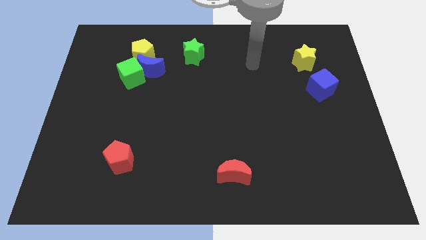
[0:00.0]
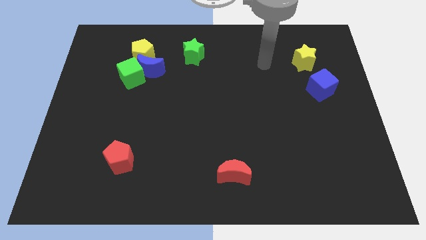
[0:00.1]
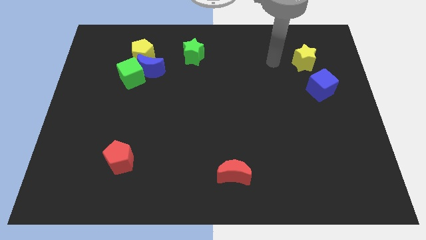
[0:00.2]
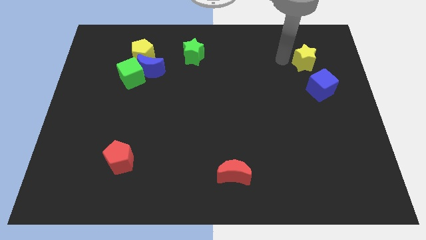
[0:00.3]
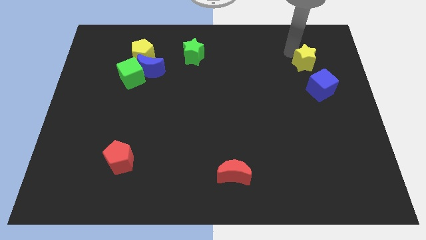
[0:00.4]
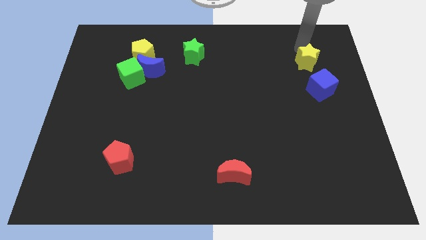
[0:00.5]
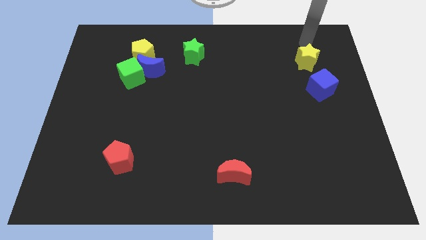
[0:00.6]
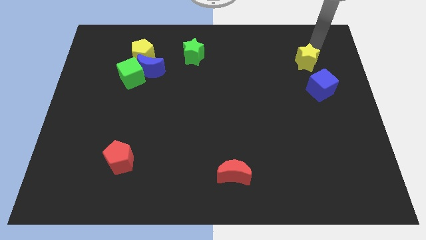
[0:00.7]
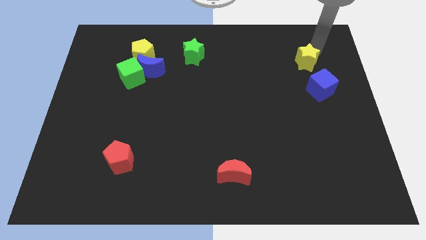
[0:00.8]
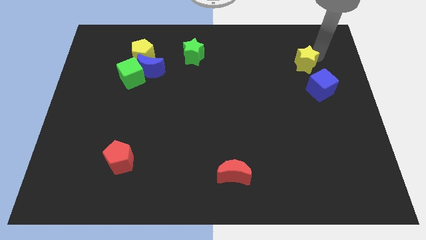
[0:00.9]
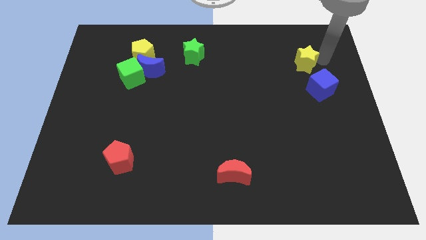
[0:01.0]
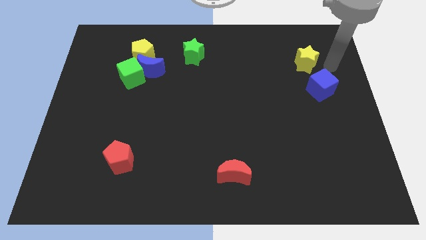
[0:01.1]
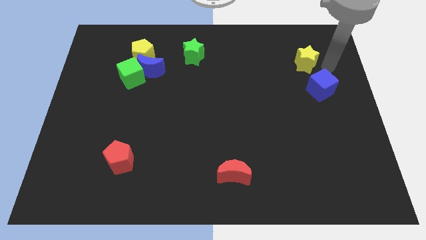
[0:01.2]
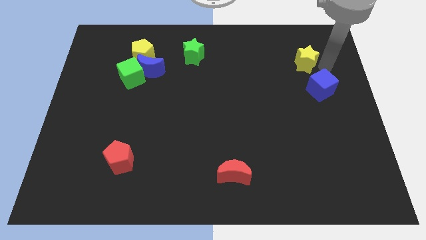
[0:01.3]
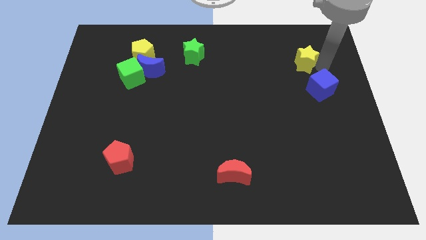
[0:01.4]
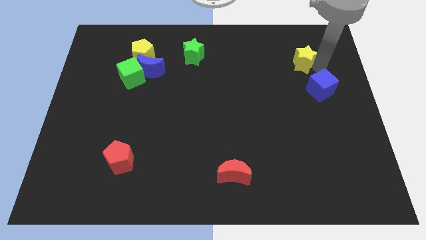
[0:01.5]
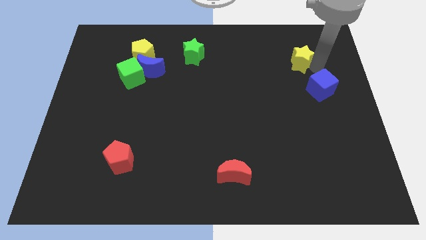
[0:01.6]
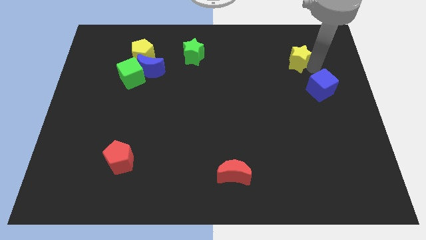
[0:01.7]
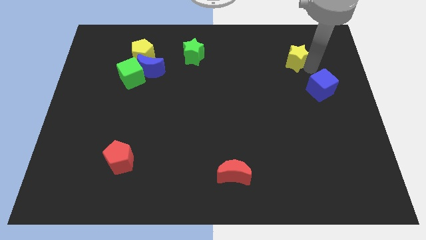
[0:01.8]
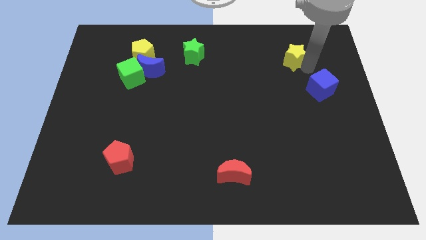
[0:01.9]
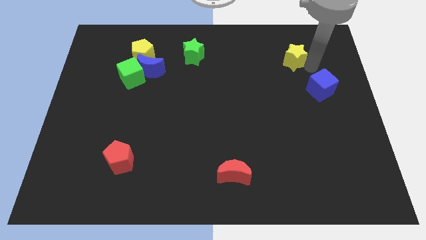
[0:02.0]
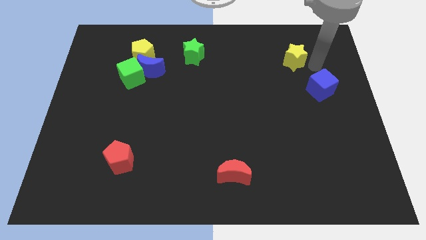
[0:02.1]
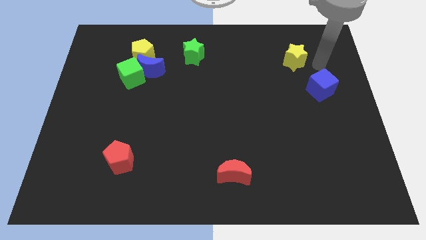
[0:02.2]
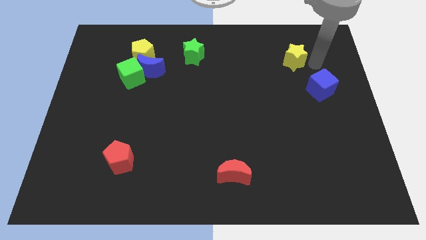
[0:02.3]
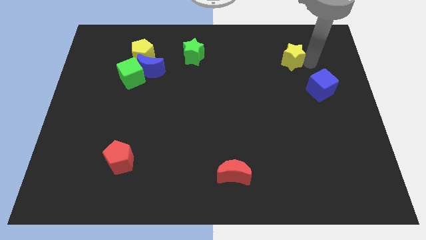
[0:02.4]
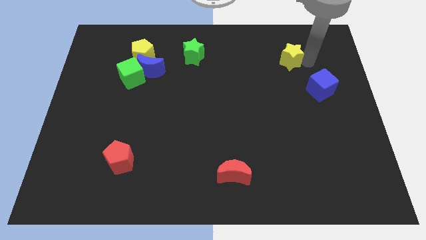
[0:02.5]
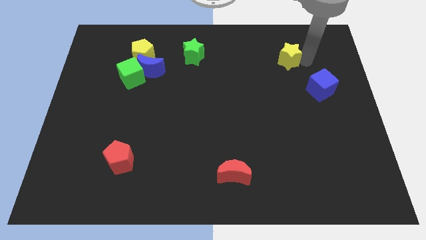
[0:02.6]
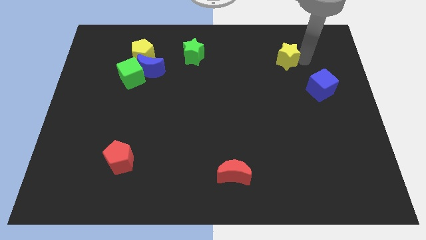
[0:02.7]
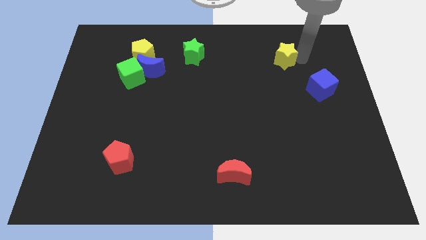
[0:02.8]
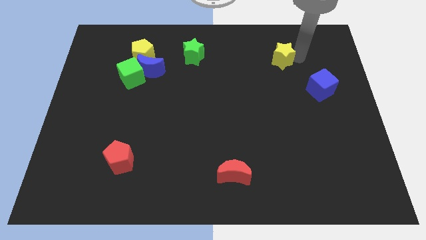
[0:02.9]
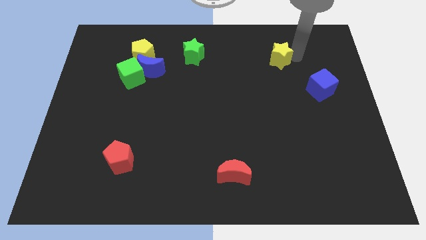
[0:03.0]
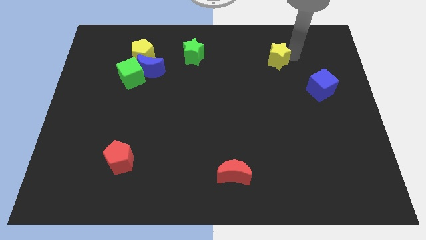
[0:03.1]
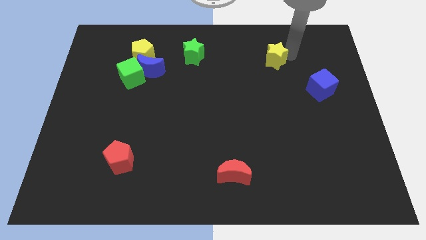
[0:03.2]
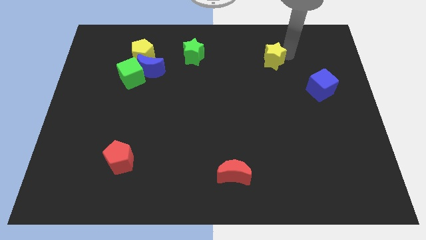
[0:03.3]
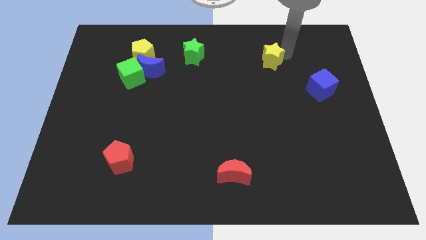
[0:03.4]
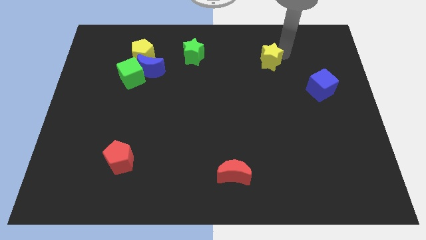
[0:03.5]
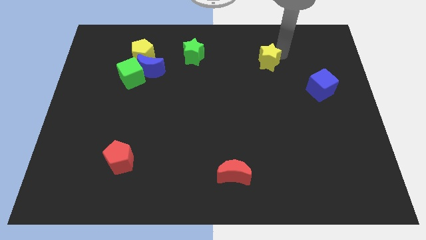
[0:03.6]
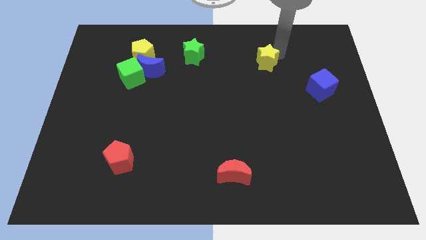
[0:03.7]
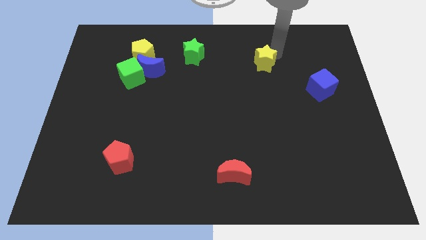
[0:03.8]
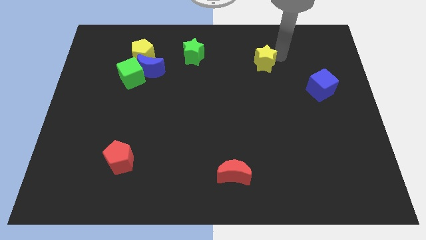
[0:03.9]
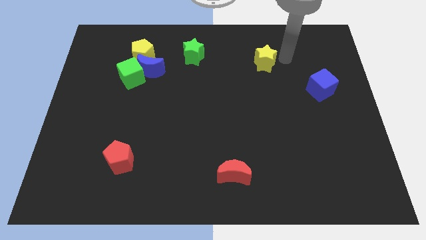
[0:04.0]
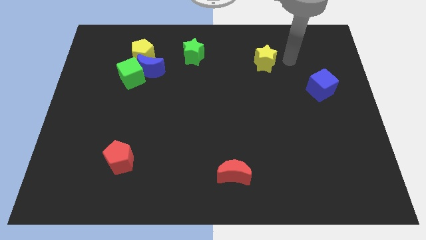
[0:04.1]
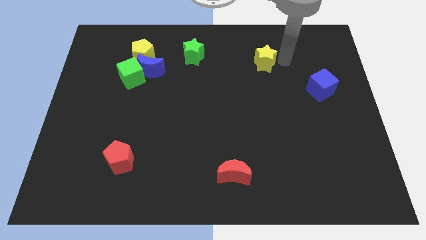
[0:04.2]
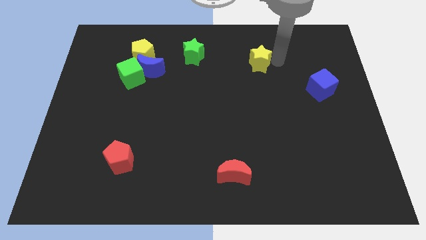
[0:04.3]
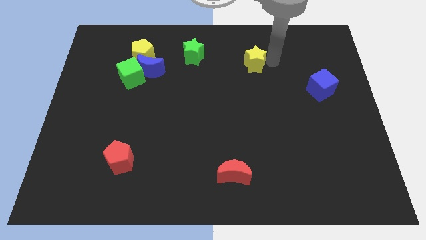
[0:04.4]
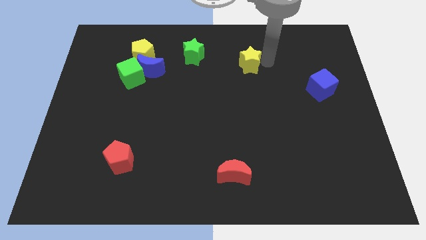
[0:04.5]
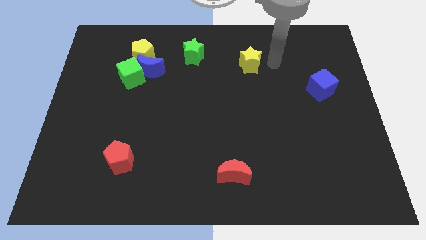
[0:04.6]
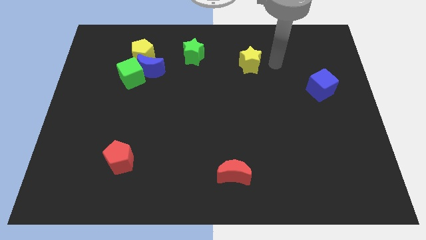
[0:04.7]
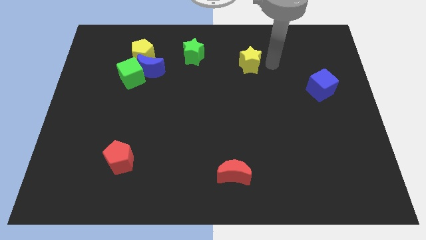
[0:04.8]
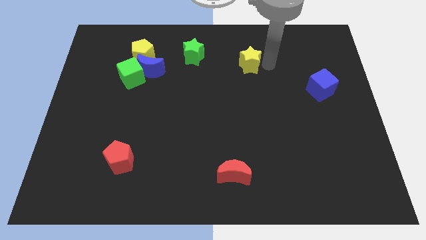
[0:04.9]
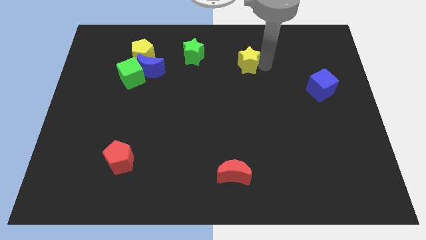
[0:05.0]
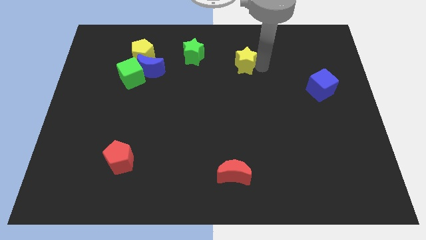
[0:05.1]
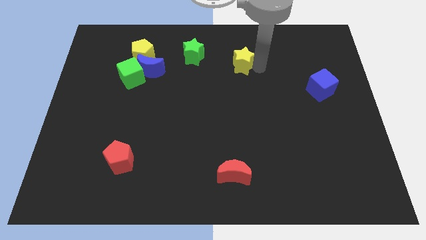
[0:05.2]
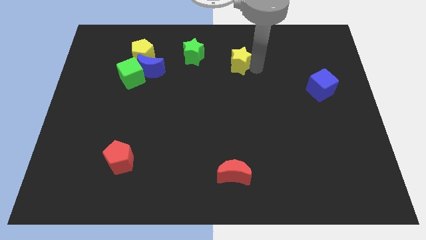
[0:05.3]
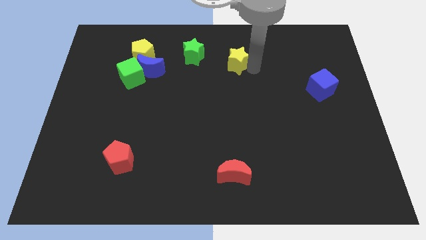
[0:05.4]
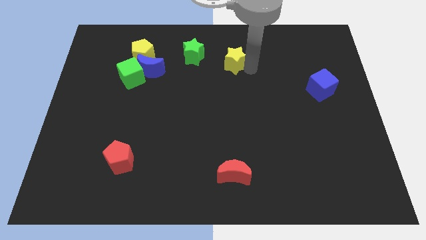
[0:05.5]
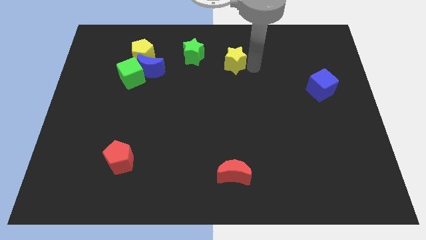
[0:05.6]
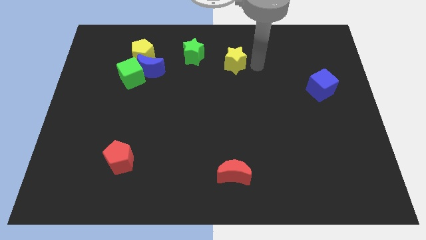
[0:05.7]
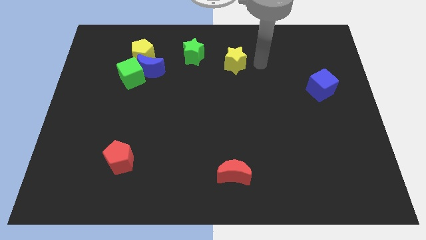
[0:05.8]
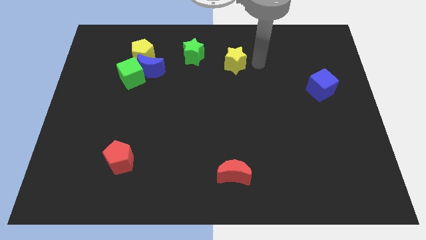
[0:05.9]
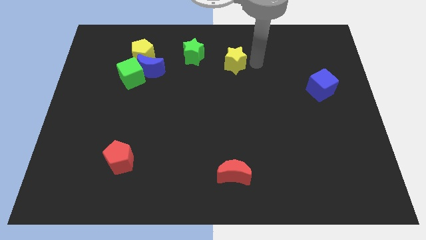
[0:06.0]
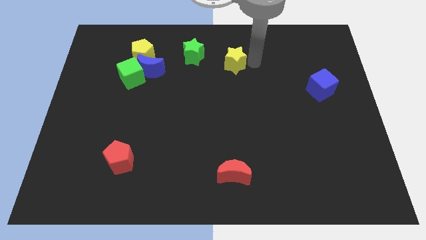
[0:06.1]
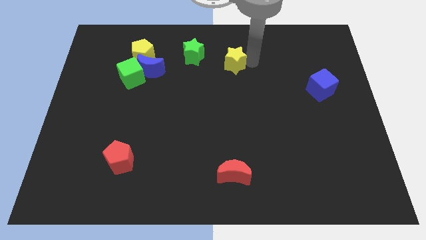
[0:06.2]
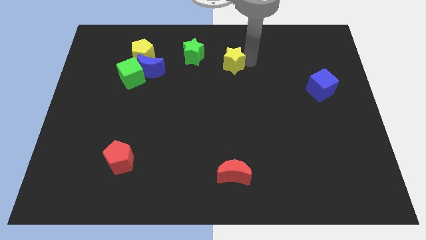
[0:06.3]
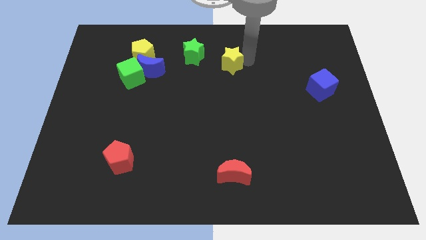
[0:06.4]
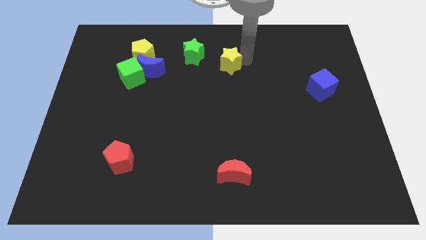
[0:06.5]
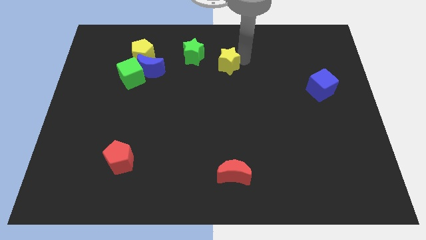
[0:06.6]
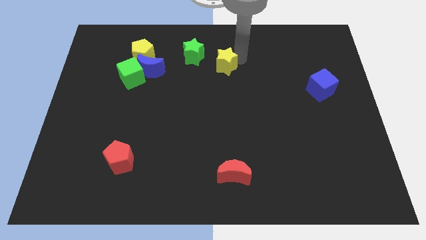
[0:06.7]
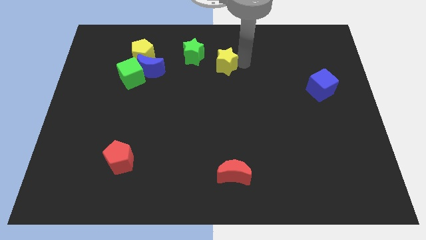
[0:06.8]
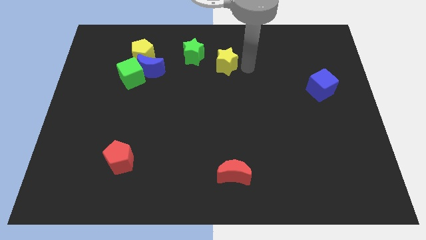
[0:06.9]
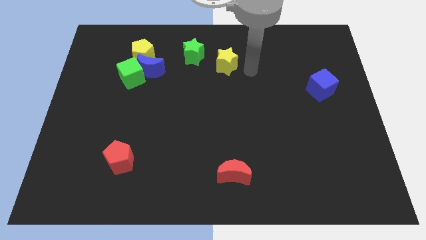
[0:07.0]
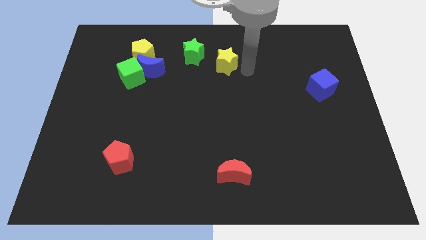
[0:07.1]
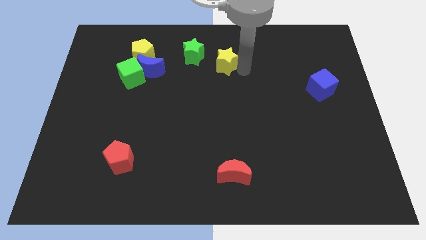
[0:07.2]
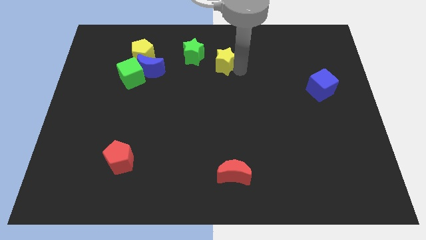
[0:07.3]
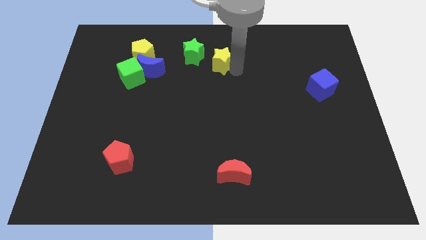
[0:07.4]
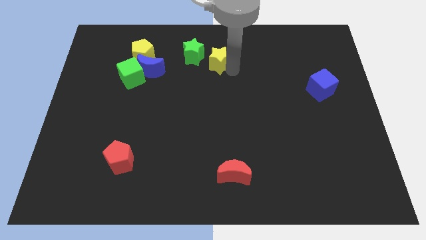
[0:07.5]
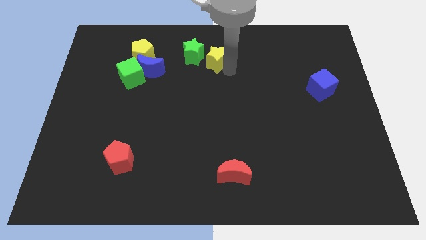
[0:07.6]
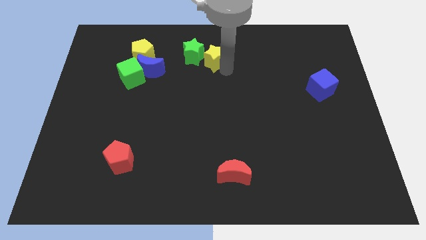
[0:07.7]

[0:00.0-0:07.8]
push the yellow star close to the green star
